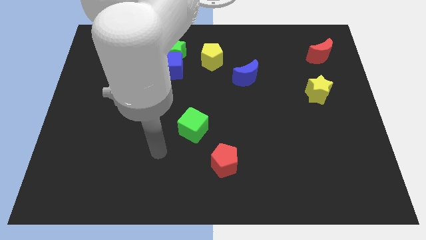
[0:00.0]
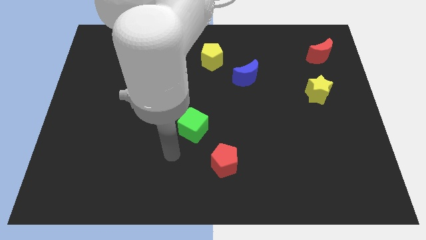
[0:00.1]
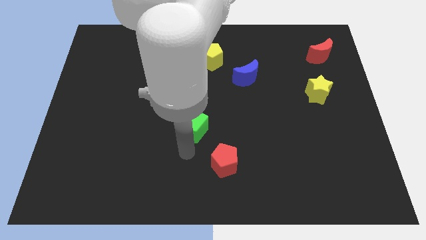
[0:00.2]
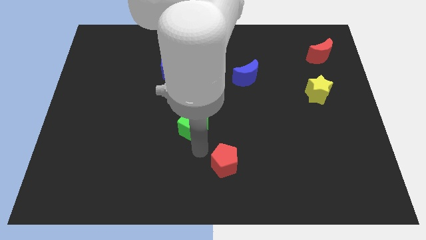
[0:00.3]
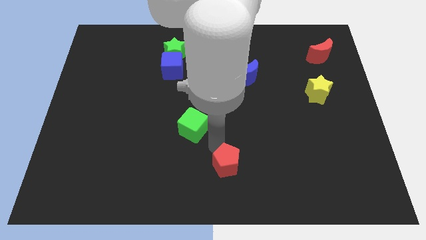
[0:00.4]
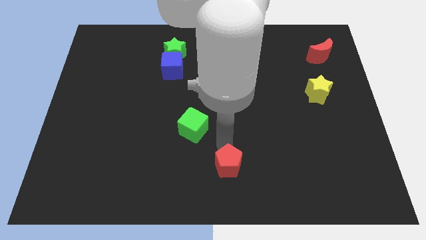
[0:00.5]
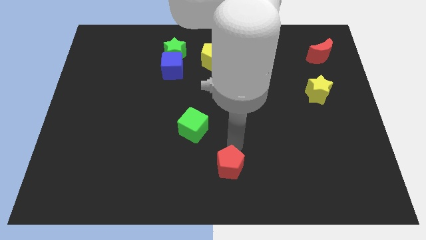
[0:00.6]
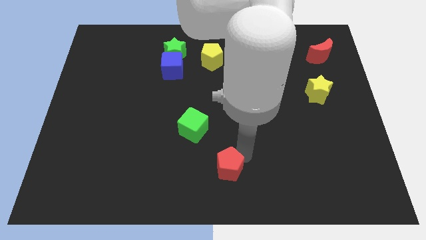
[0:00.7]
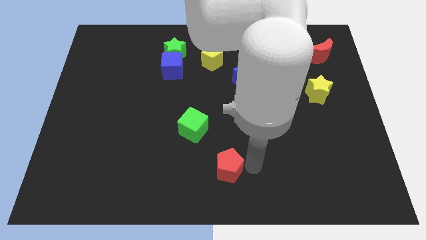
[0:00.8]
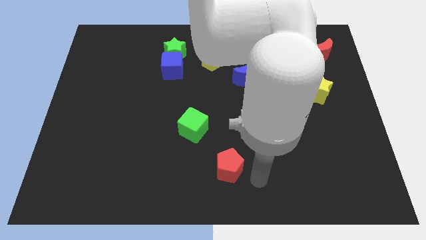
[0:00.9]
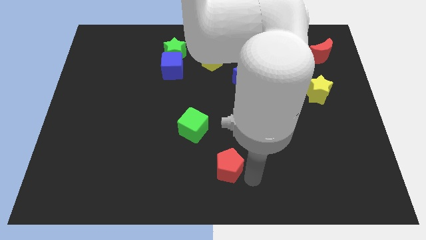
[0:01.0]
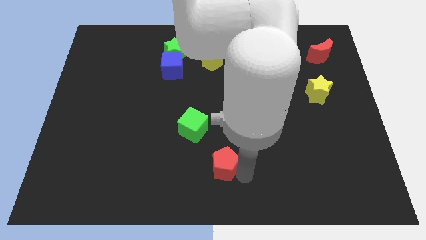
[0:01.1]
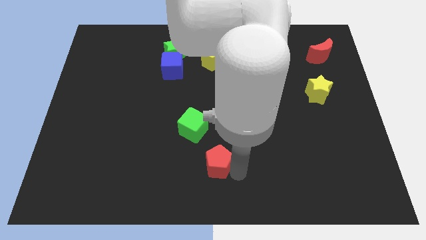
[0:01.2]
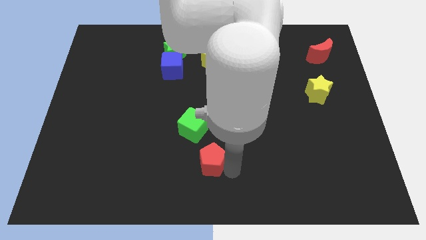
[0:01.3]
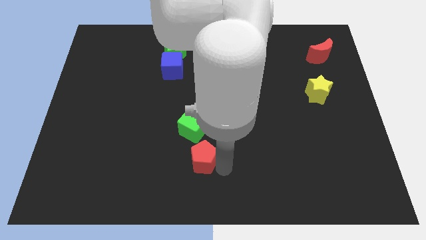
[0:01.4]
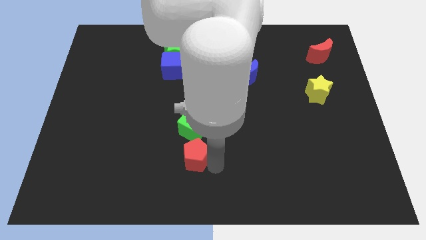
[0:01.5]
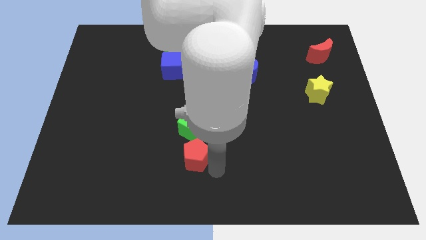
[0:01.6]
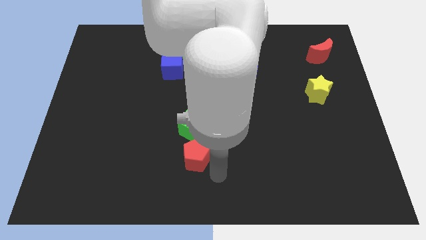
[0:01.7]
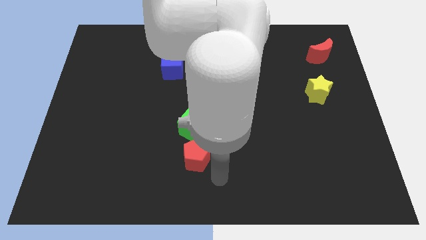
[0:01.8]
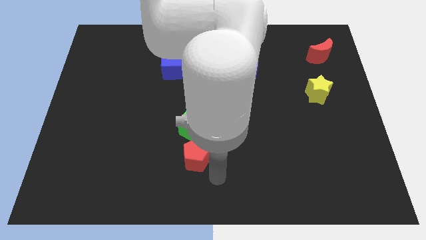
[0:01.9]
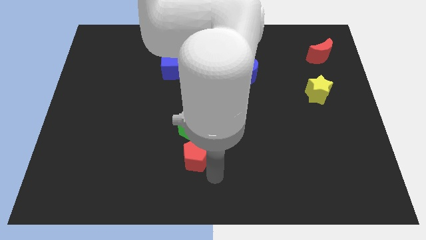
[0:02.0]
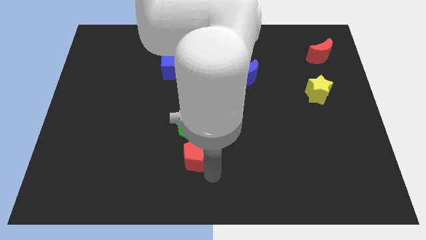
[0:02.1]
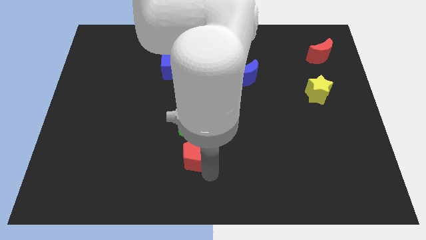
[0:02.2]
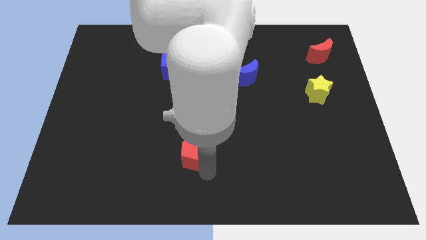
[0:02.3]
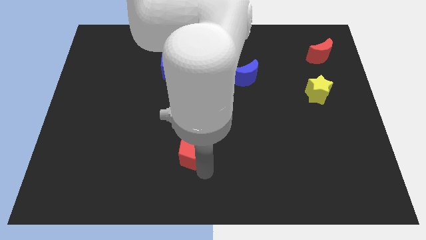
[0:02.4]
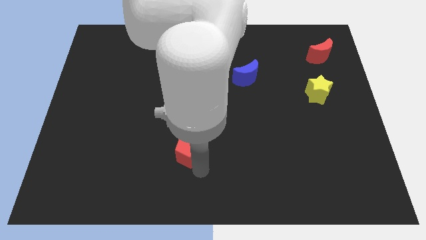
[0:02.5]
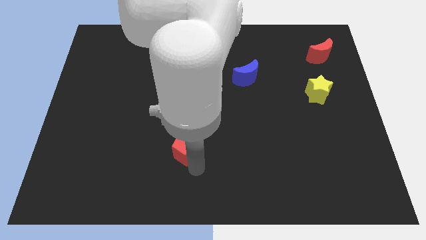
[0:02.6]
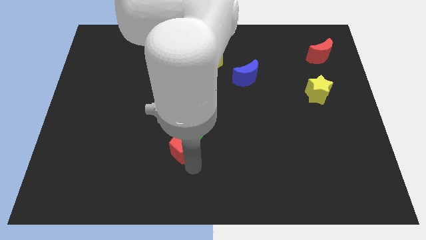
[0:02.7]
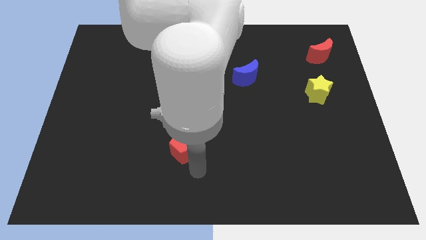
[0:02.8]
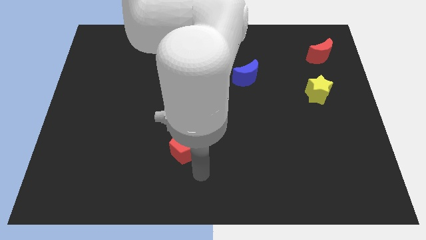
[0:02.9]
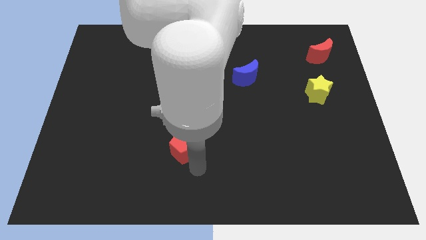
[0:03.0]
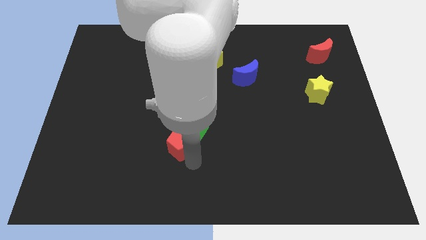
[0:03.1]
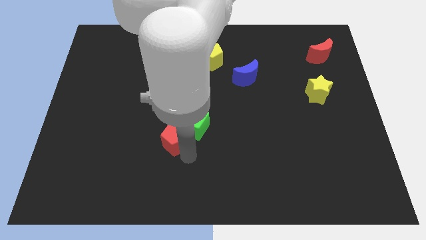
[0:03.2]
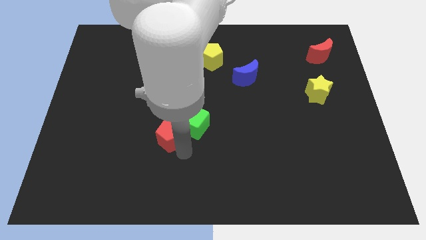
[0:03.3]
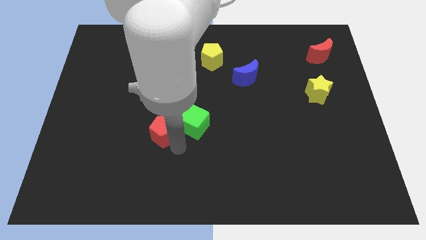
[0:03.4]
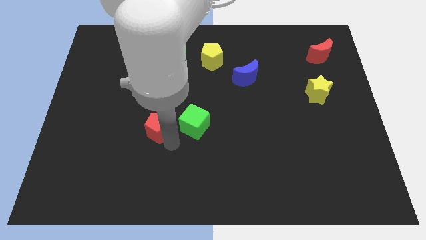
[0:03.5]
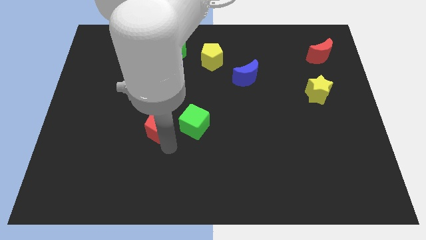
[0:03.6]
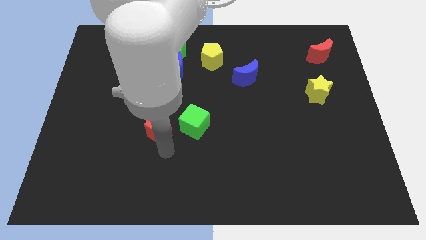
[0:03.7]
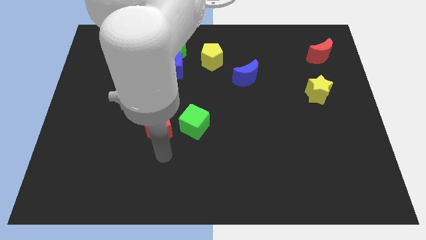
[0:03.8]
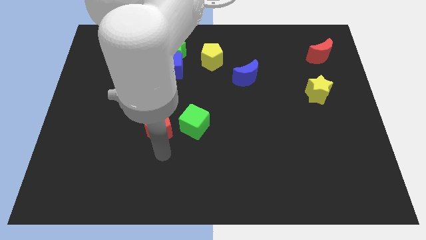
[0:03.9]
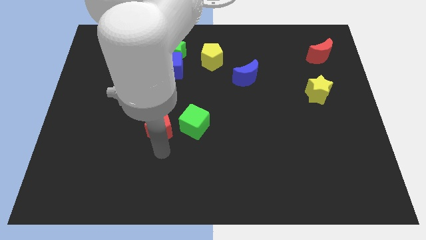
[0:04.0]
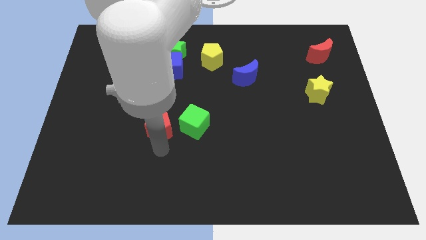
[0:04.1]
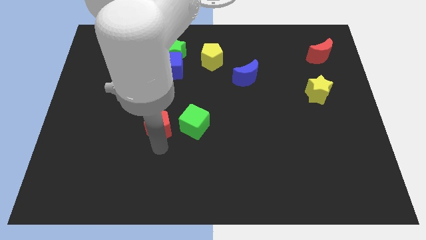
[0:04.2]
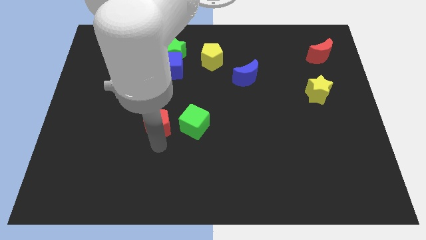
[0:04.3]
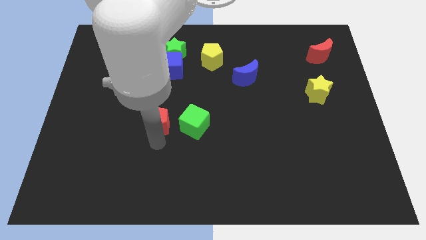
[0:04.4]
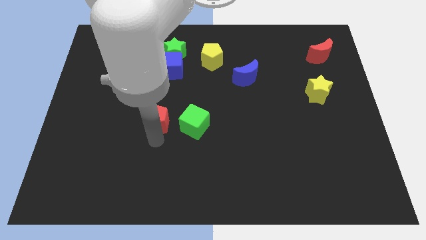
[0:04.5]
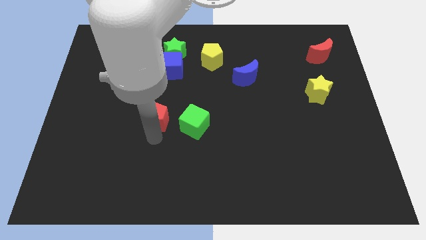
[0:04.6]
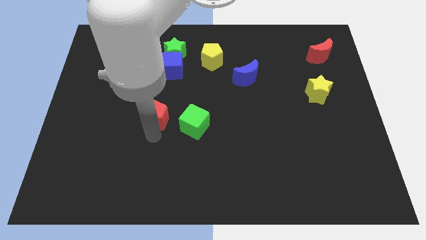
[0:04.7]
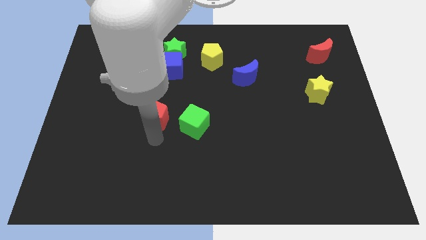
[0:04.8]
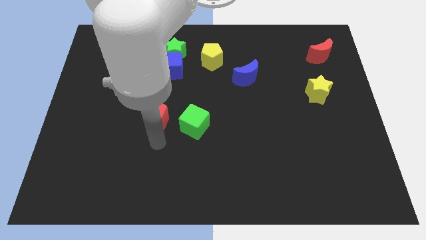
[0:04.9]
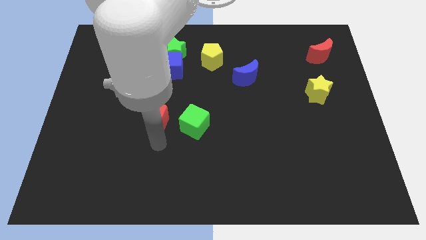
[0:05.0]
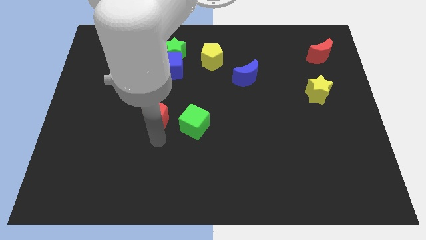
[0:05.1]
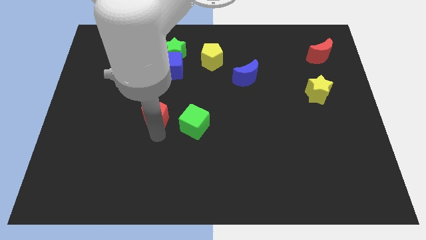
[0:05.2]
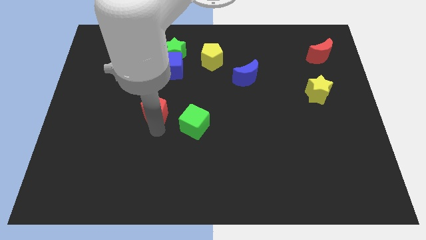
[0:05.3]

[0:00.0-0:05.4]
move the red pentagon upwards and left diagonally

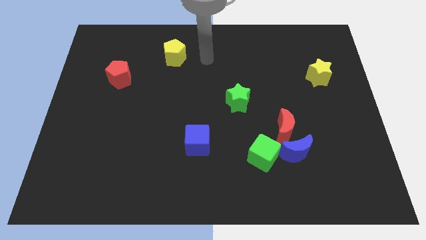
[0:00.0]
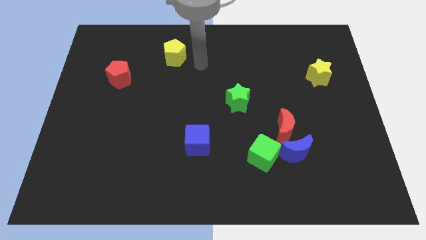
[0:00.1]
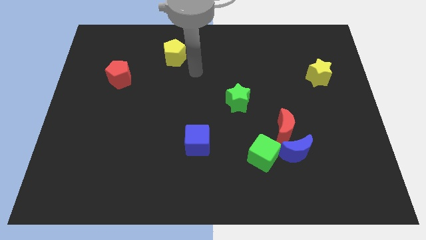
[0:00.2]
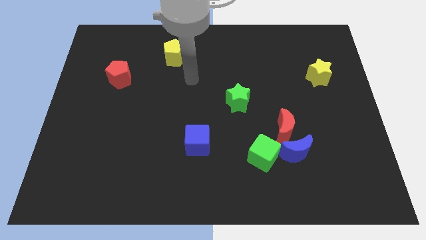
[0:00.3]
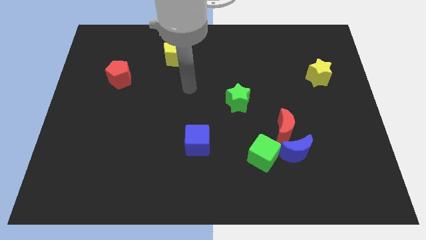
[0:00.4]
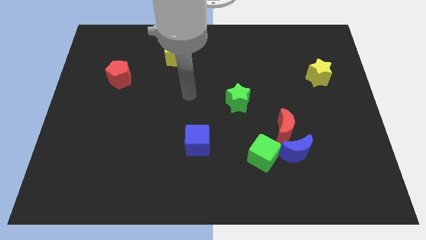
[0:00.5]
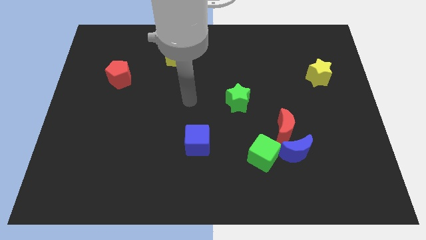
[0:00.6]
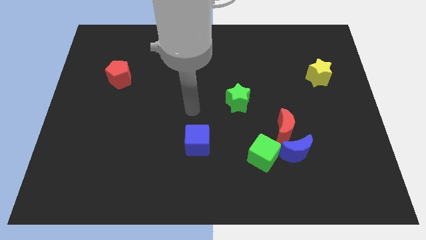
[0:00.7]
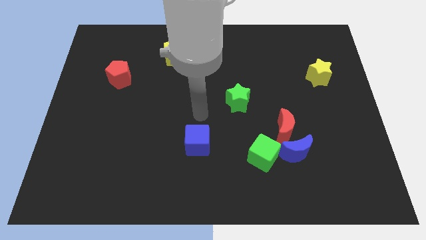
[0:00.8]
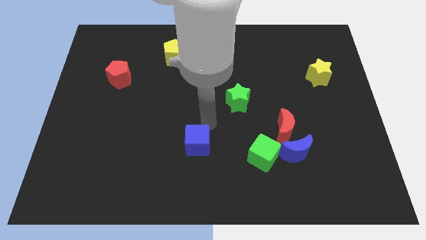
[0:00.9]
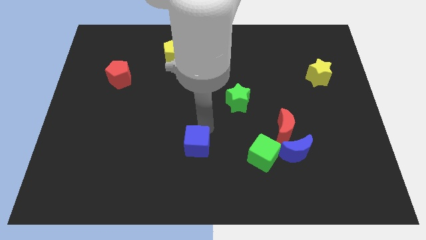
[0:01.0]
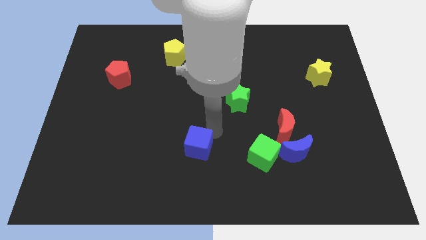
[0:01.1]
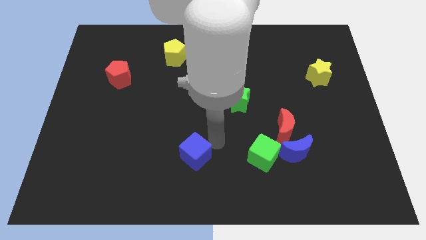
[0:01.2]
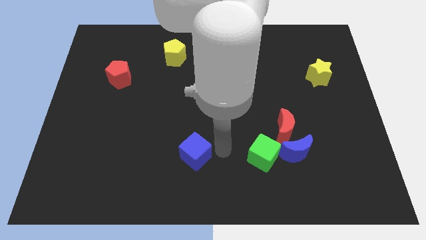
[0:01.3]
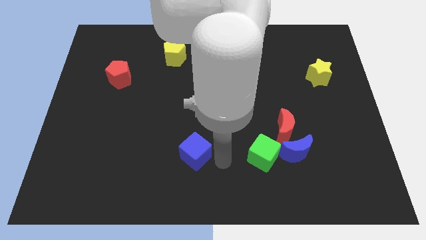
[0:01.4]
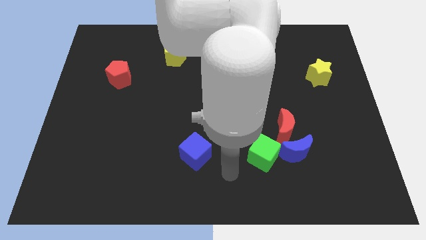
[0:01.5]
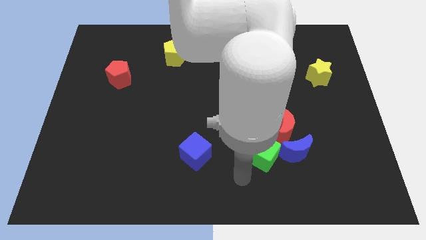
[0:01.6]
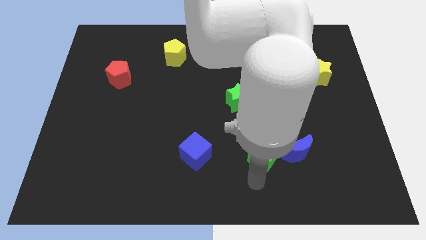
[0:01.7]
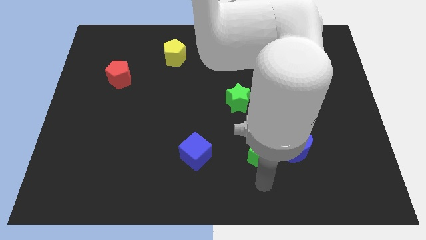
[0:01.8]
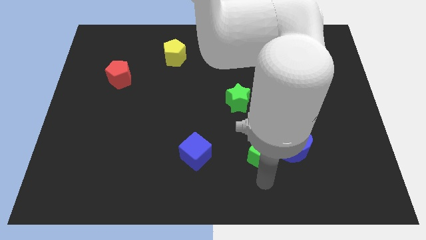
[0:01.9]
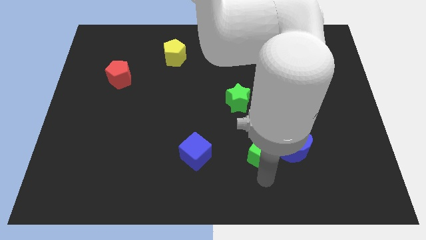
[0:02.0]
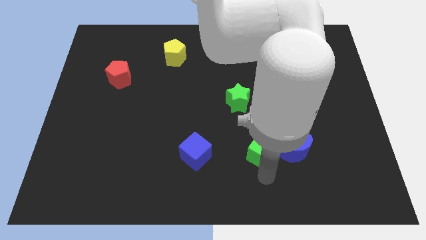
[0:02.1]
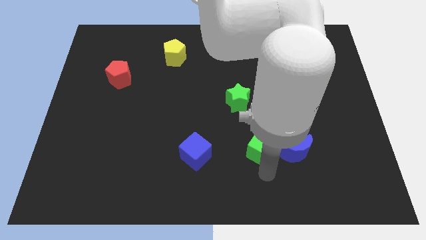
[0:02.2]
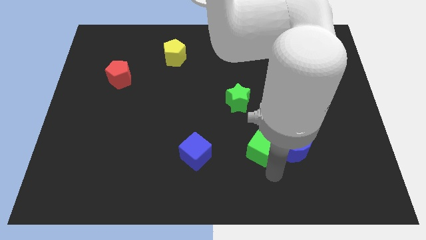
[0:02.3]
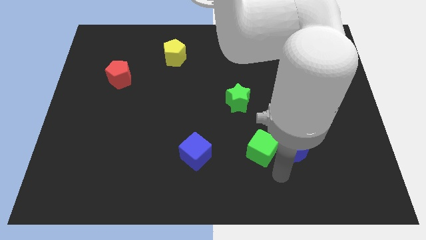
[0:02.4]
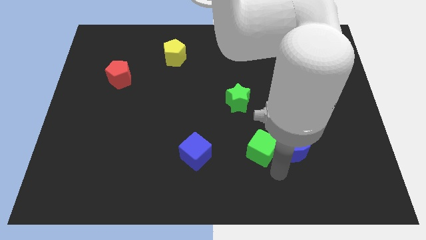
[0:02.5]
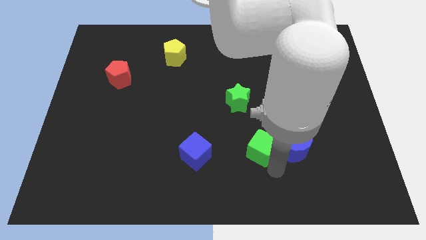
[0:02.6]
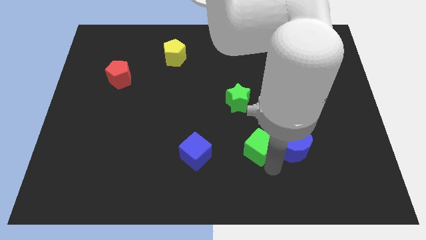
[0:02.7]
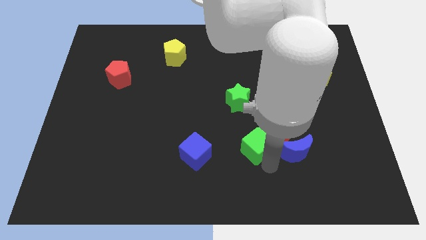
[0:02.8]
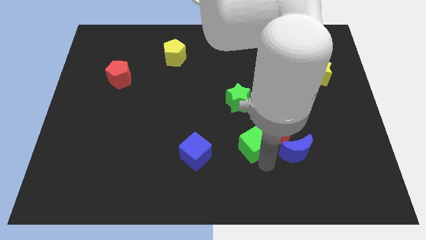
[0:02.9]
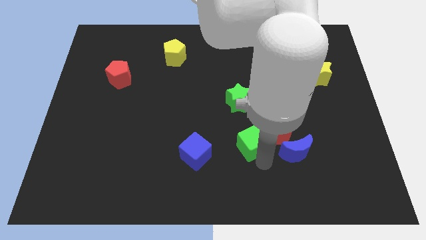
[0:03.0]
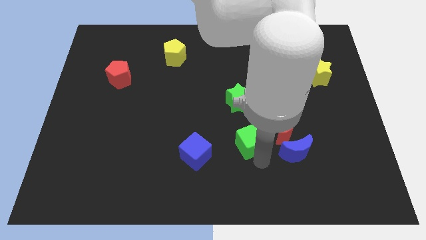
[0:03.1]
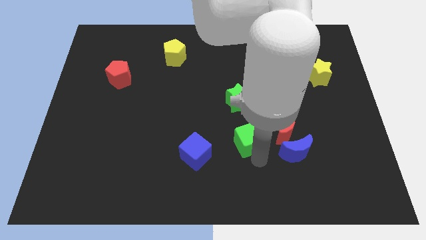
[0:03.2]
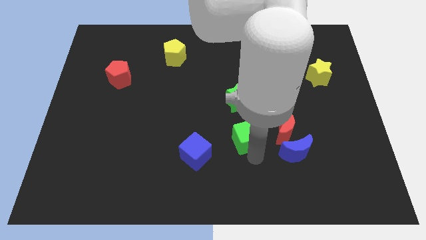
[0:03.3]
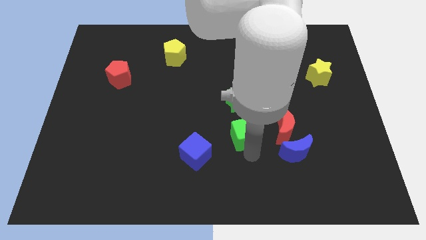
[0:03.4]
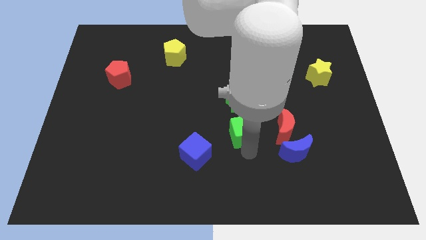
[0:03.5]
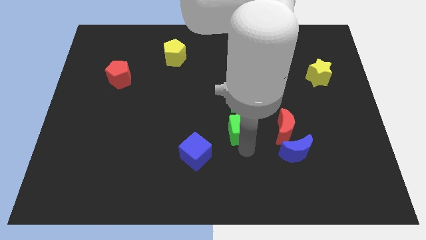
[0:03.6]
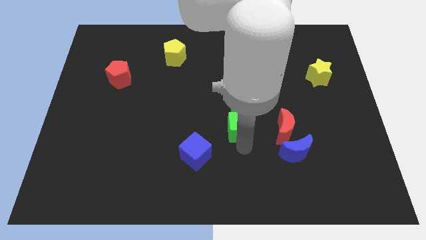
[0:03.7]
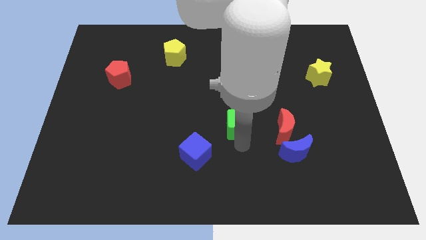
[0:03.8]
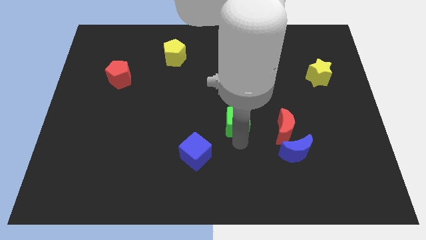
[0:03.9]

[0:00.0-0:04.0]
push the green cube up a bit
